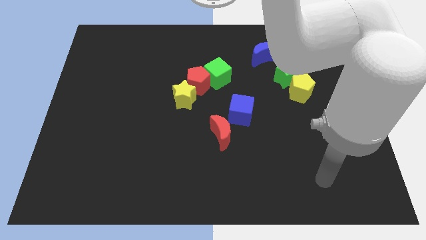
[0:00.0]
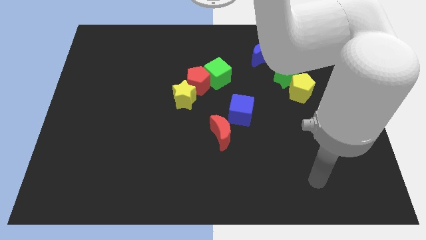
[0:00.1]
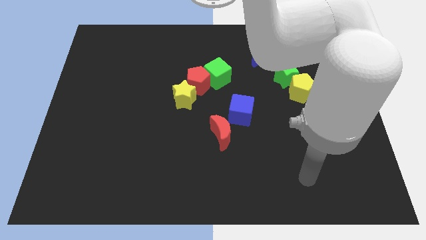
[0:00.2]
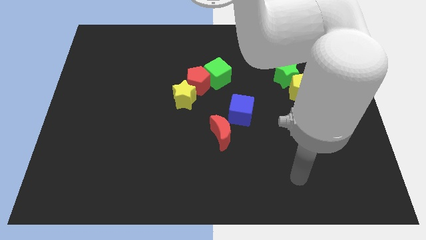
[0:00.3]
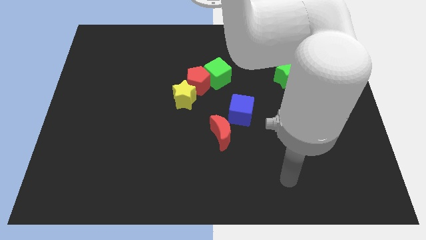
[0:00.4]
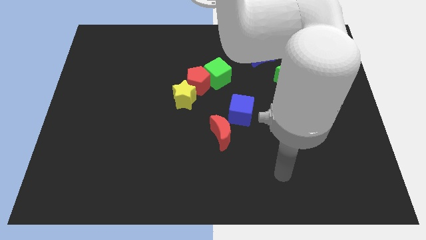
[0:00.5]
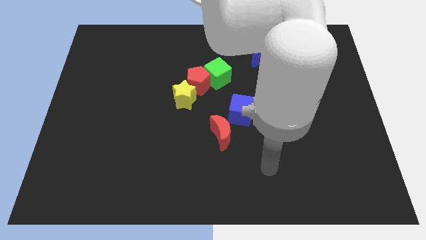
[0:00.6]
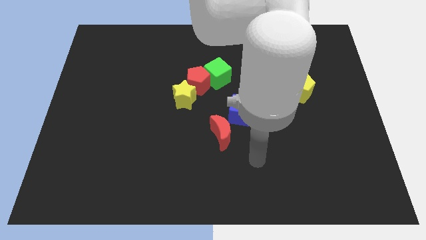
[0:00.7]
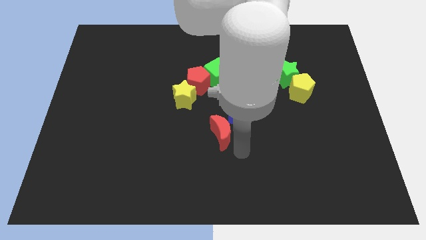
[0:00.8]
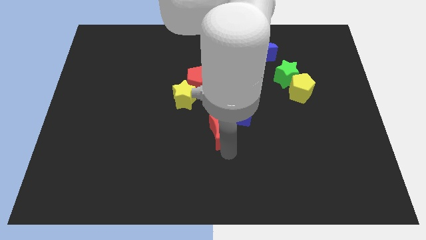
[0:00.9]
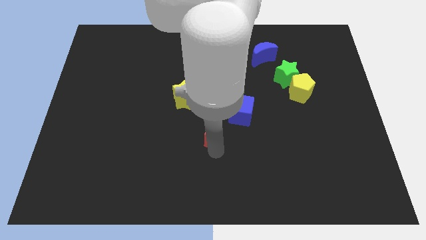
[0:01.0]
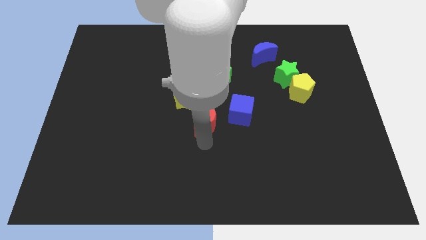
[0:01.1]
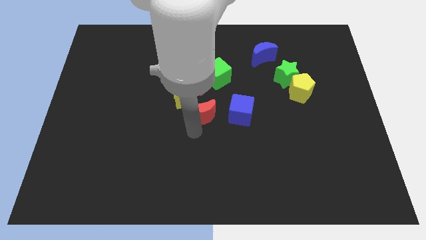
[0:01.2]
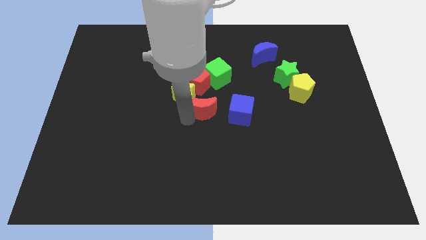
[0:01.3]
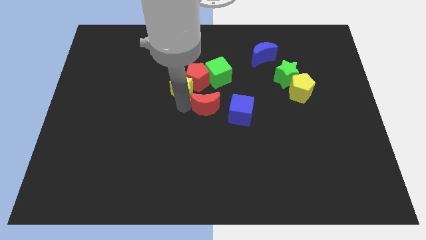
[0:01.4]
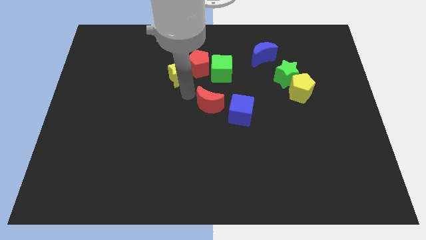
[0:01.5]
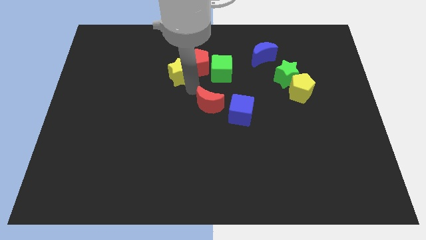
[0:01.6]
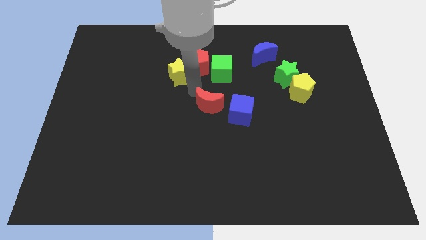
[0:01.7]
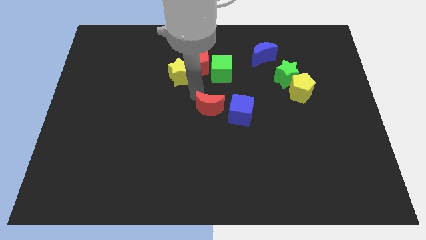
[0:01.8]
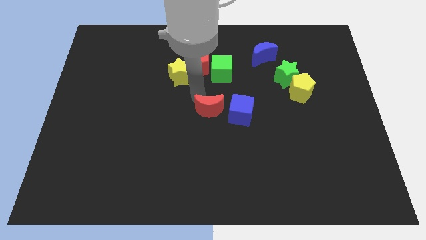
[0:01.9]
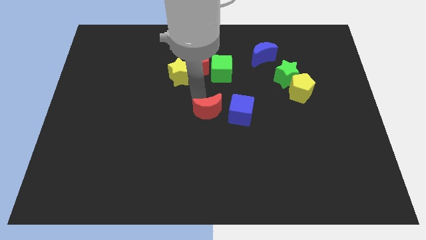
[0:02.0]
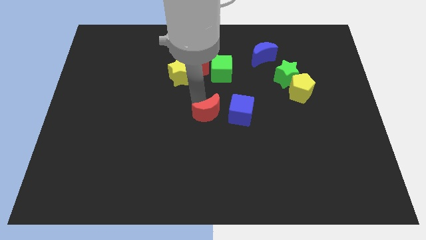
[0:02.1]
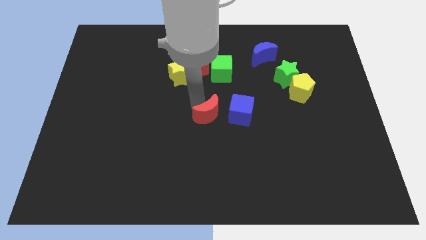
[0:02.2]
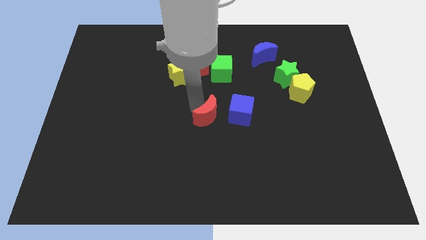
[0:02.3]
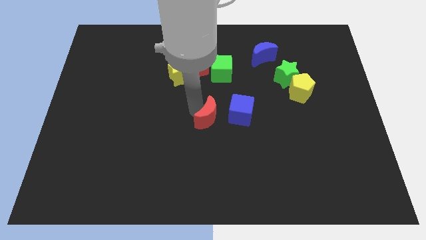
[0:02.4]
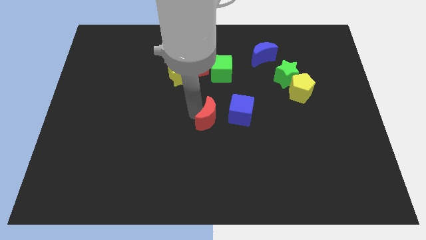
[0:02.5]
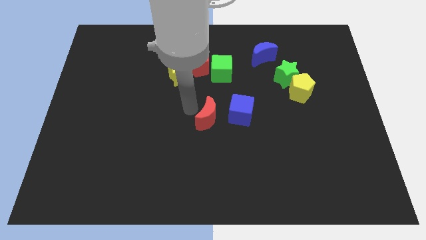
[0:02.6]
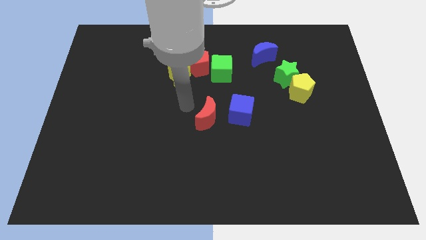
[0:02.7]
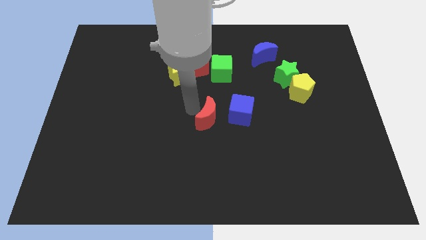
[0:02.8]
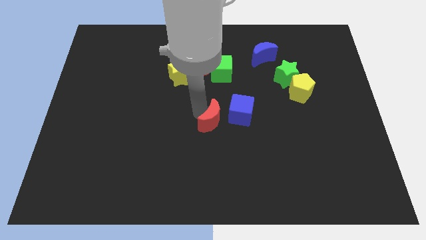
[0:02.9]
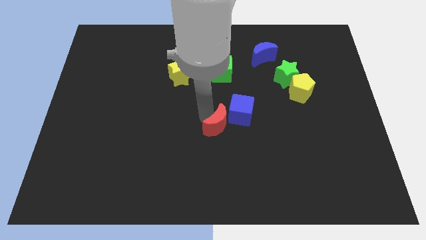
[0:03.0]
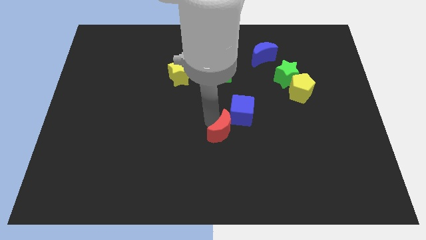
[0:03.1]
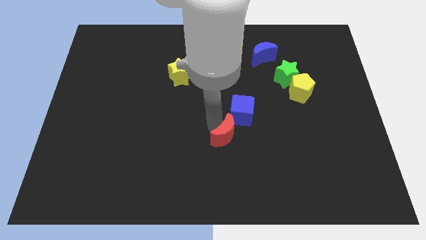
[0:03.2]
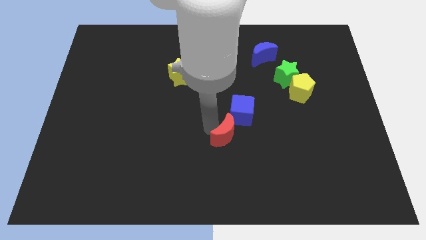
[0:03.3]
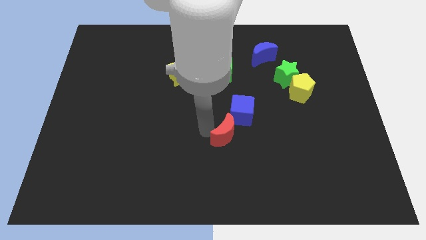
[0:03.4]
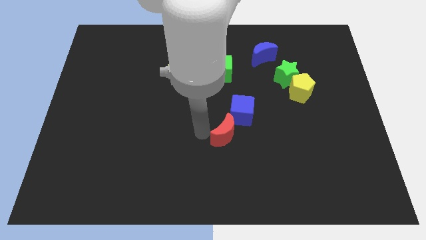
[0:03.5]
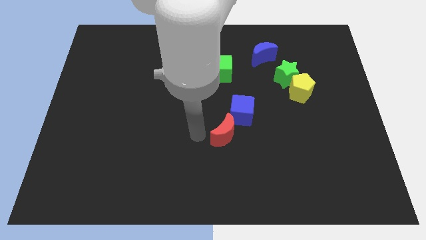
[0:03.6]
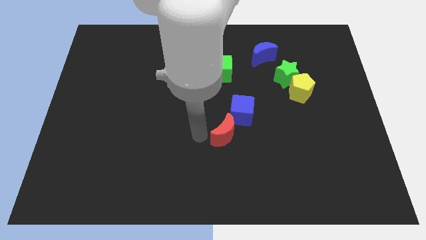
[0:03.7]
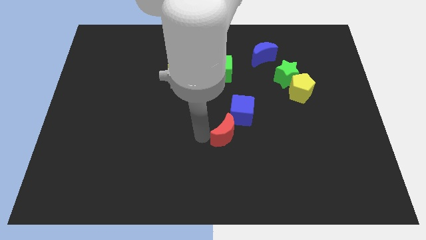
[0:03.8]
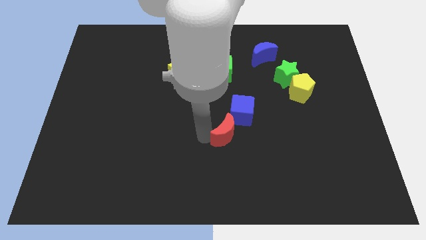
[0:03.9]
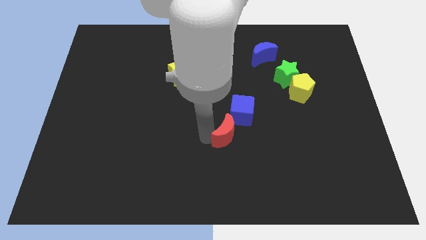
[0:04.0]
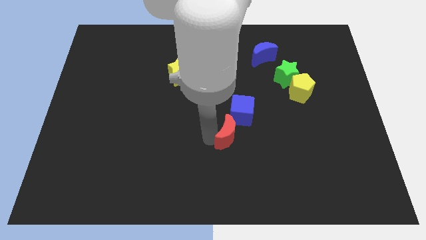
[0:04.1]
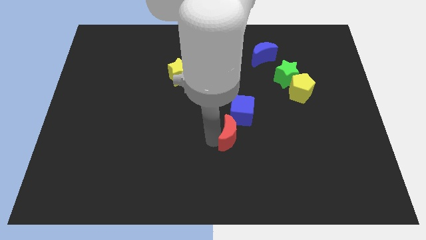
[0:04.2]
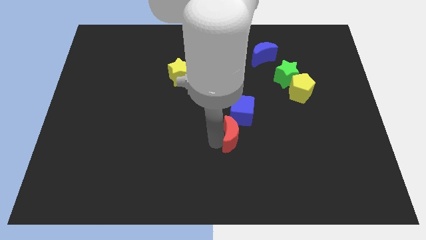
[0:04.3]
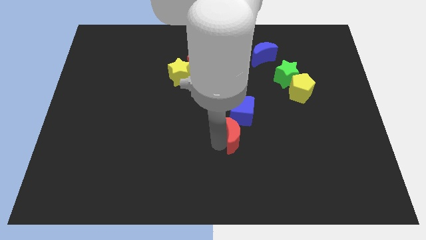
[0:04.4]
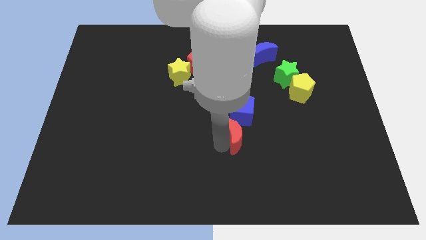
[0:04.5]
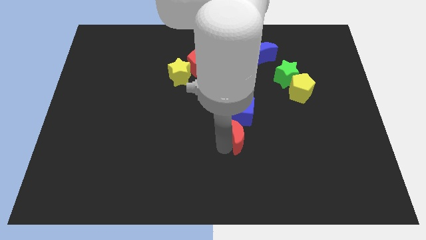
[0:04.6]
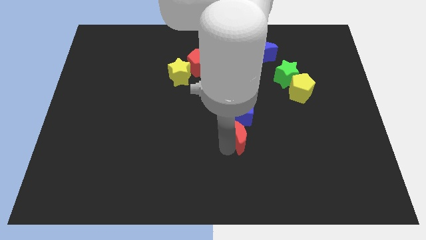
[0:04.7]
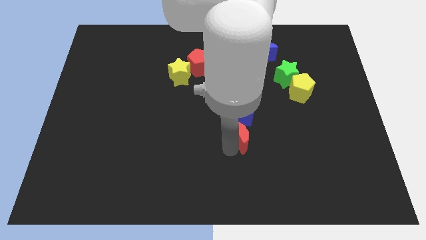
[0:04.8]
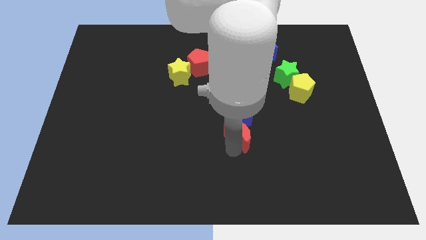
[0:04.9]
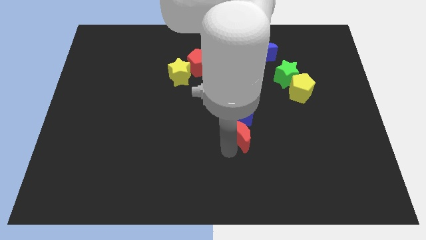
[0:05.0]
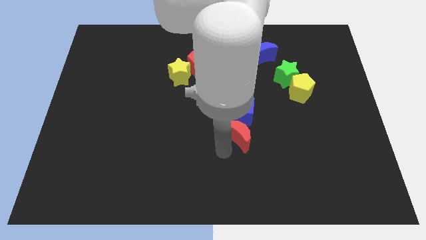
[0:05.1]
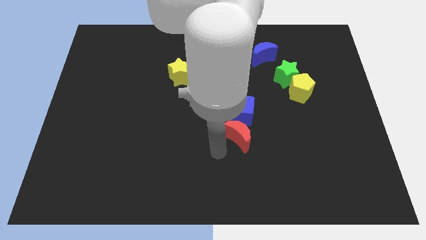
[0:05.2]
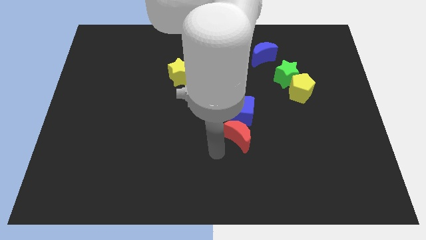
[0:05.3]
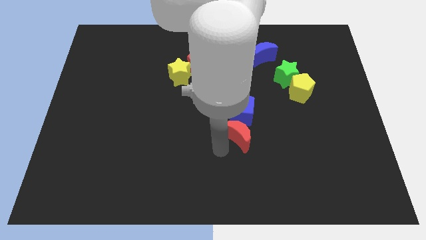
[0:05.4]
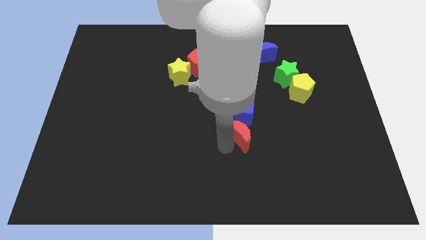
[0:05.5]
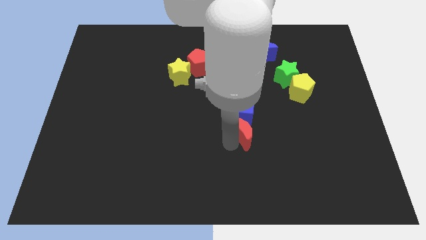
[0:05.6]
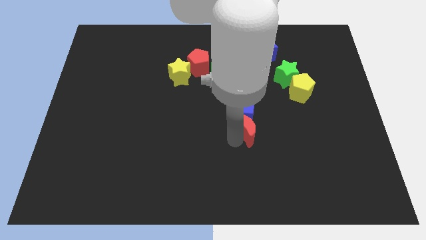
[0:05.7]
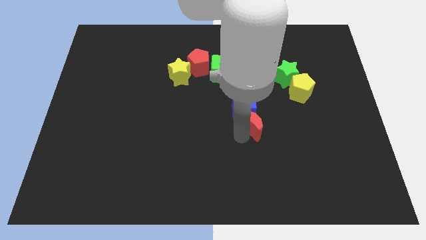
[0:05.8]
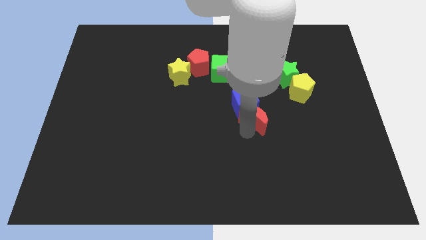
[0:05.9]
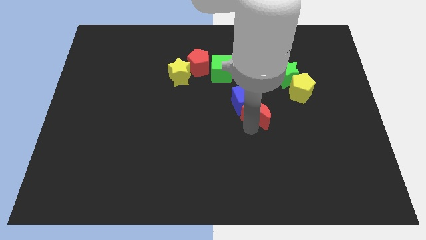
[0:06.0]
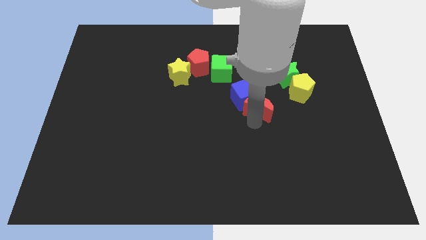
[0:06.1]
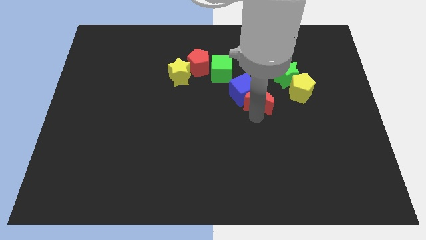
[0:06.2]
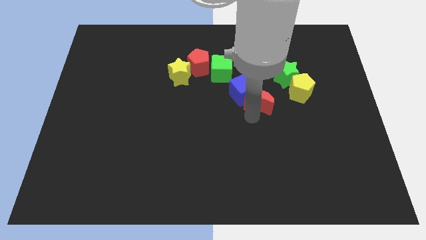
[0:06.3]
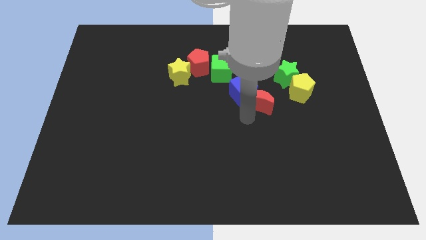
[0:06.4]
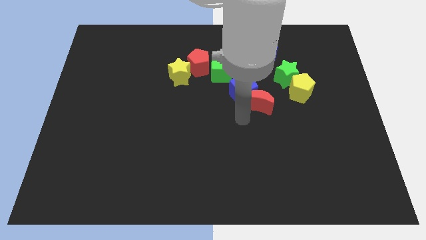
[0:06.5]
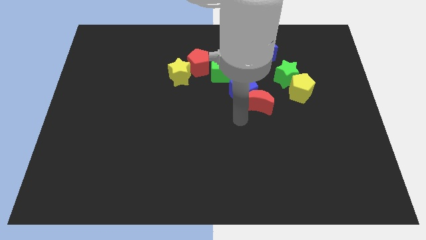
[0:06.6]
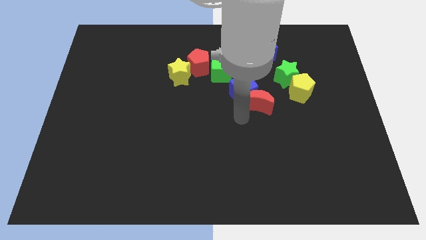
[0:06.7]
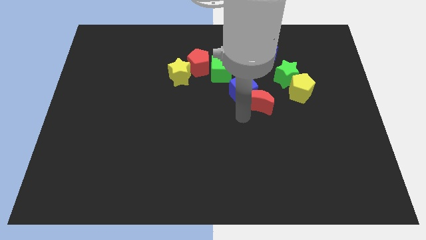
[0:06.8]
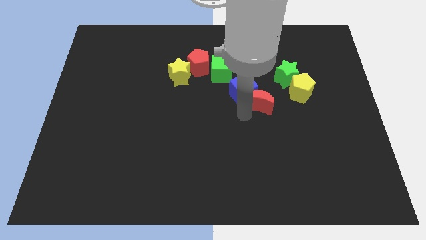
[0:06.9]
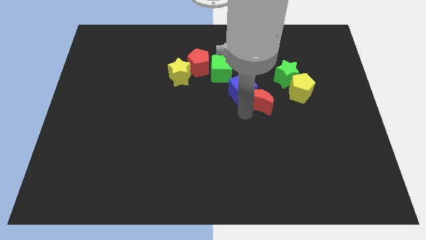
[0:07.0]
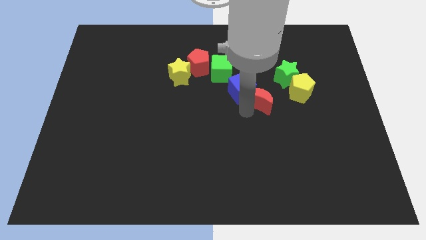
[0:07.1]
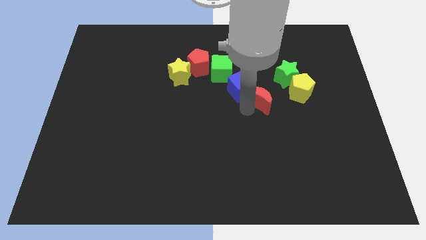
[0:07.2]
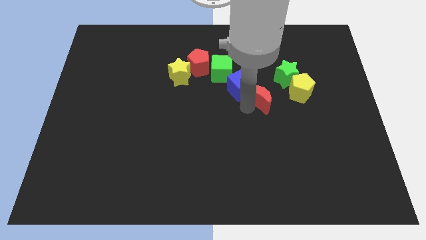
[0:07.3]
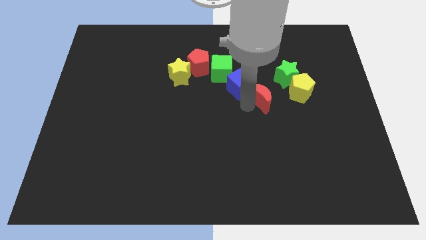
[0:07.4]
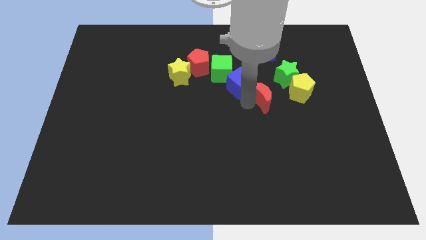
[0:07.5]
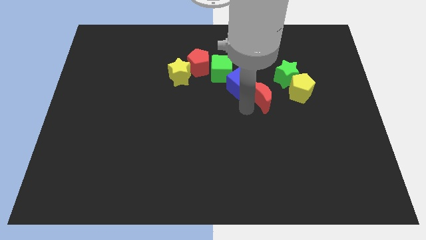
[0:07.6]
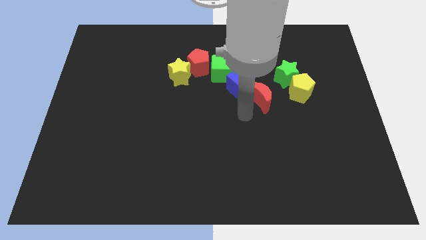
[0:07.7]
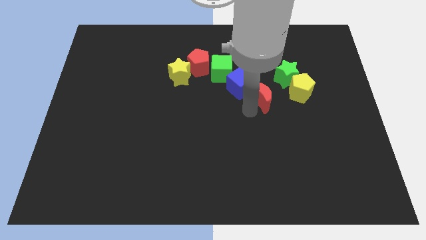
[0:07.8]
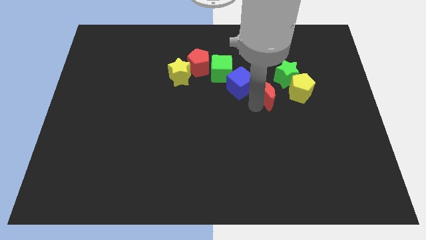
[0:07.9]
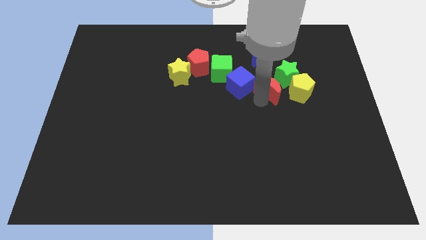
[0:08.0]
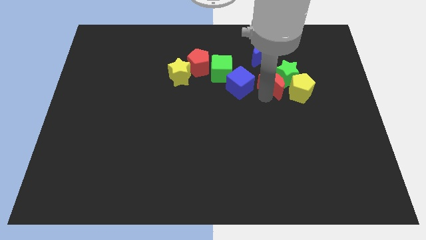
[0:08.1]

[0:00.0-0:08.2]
slide the red moon next to the green star
